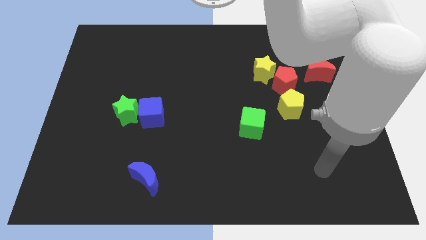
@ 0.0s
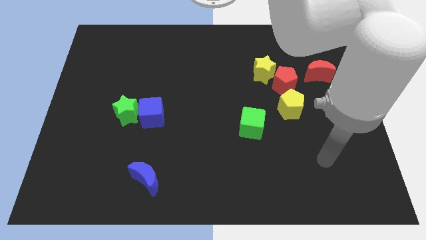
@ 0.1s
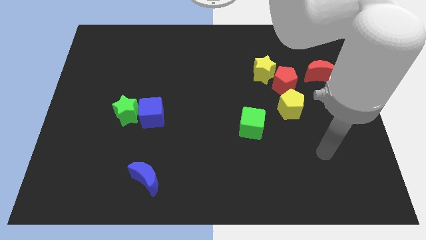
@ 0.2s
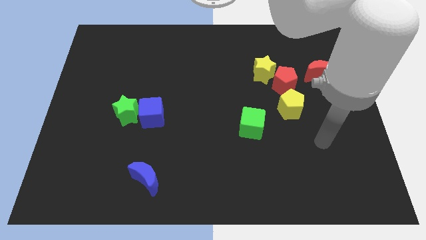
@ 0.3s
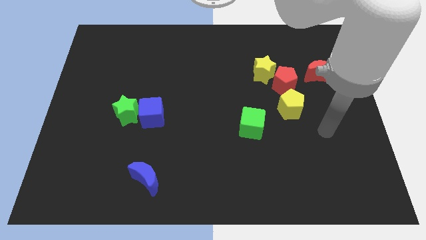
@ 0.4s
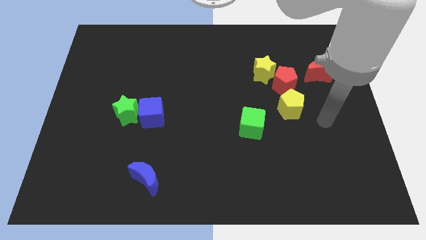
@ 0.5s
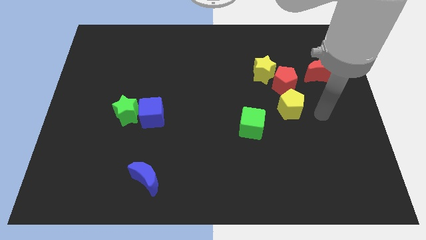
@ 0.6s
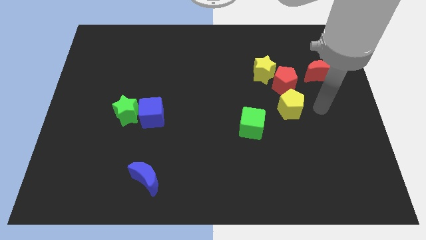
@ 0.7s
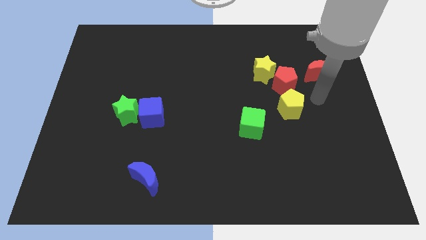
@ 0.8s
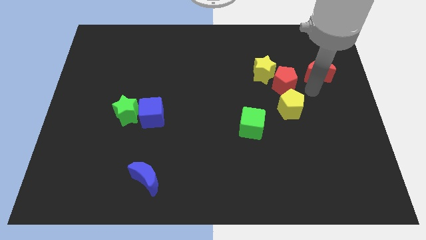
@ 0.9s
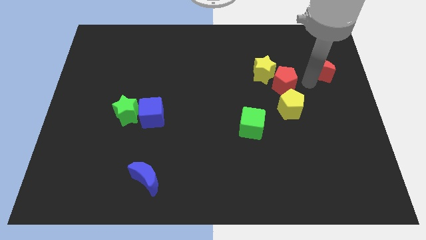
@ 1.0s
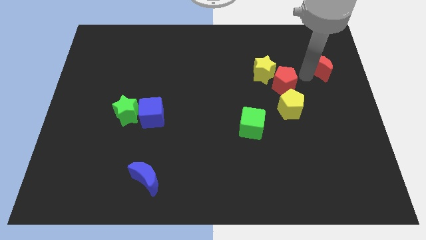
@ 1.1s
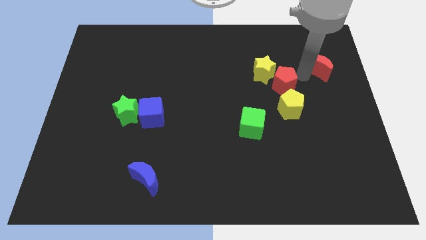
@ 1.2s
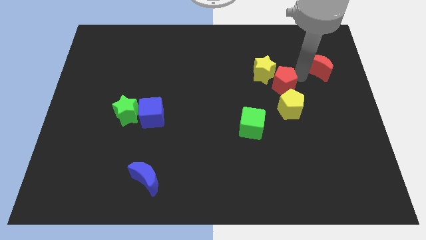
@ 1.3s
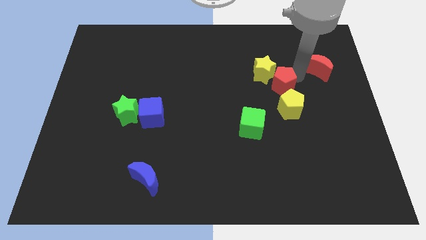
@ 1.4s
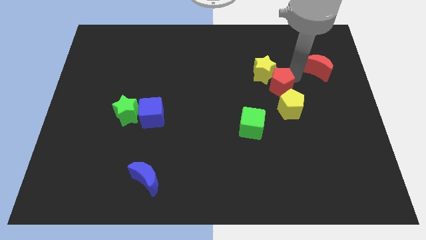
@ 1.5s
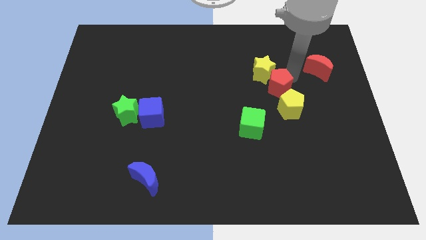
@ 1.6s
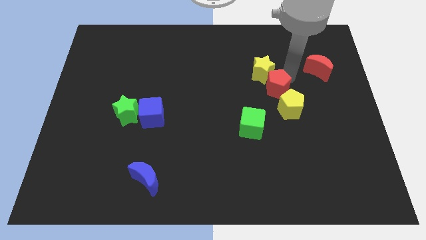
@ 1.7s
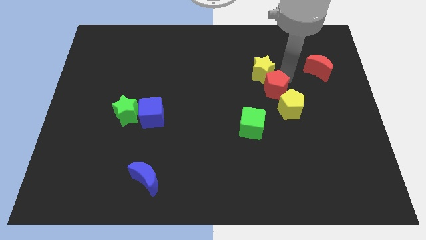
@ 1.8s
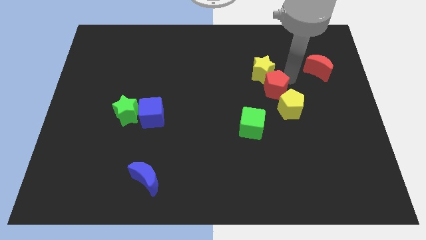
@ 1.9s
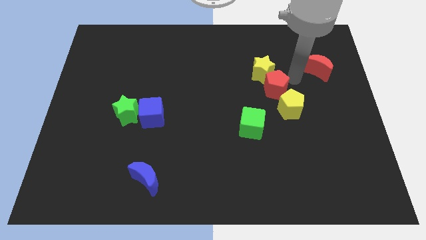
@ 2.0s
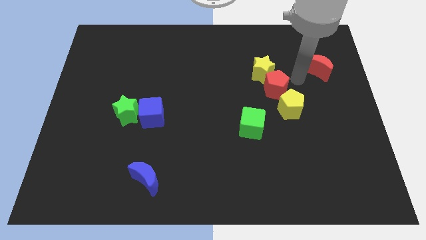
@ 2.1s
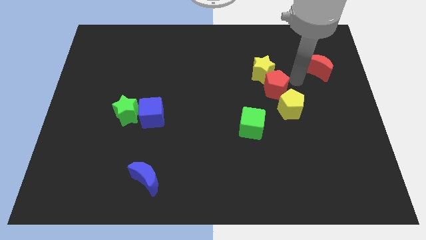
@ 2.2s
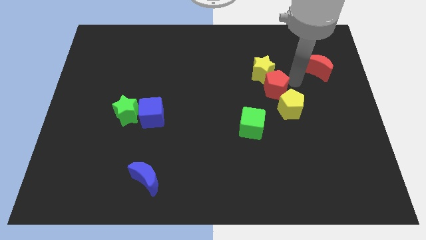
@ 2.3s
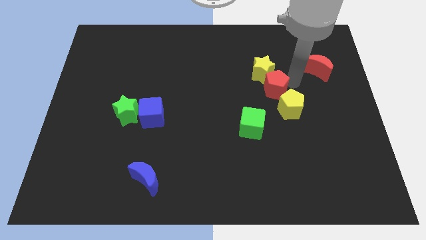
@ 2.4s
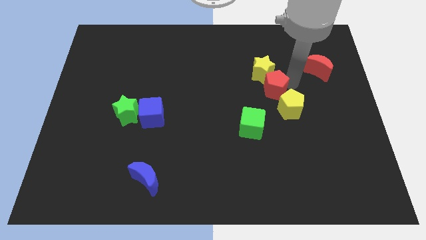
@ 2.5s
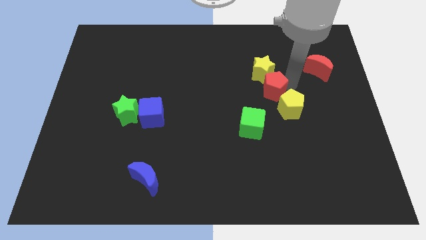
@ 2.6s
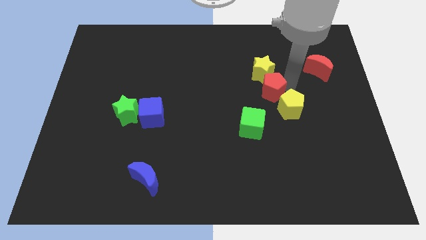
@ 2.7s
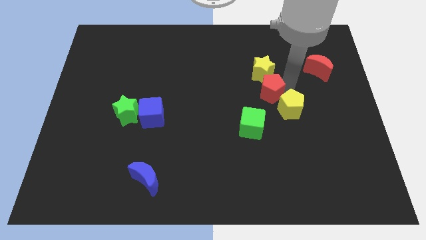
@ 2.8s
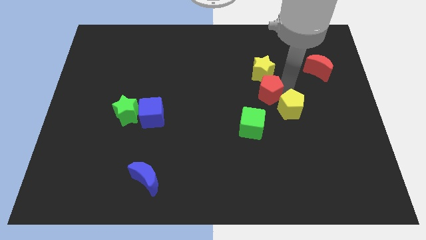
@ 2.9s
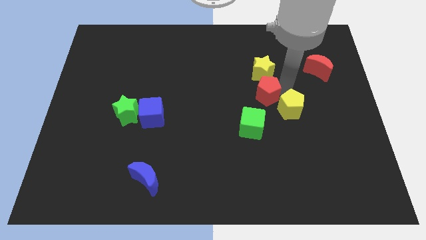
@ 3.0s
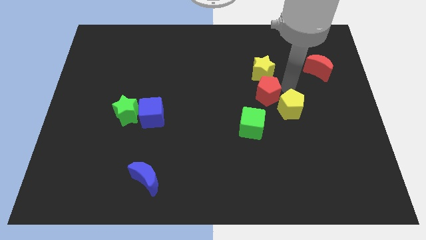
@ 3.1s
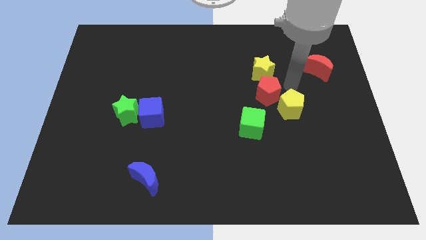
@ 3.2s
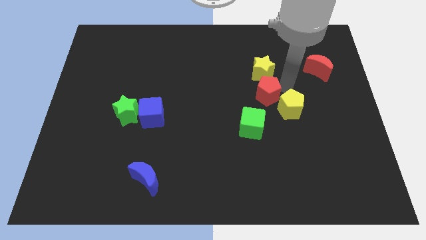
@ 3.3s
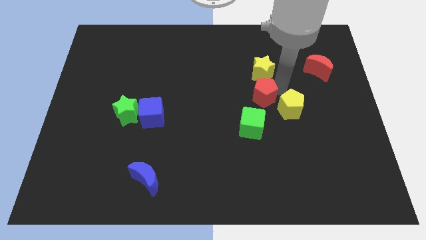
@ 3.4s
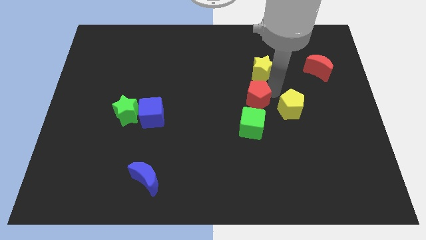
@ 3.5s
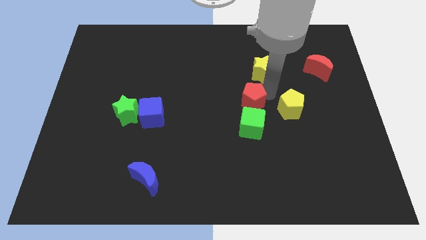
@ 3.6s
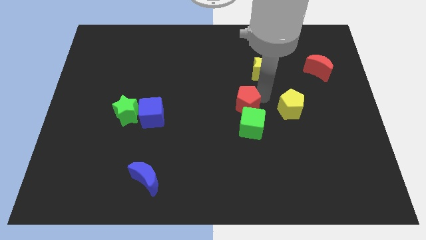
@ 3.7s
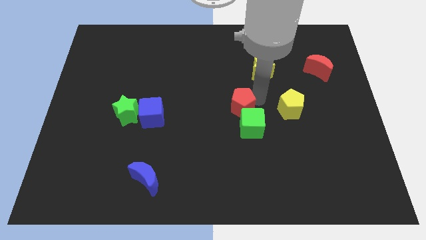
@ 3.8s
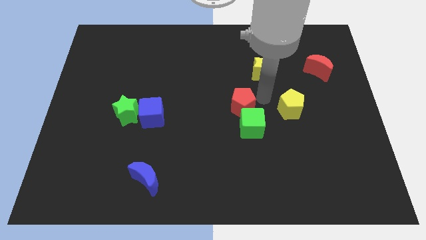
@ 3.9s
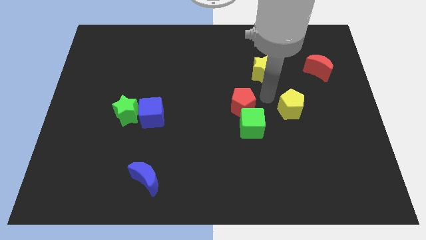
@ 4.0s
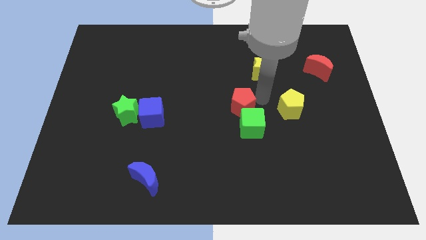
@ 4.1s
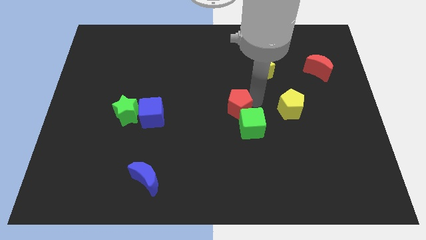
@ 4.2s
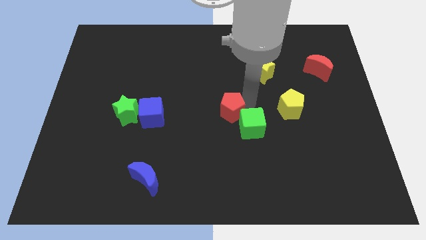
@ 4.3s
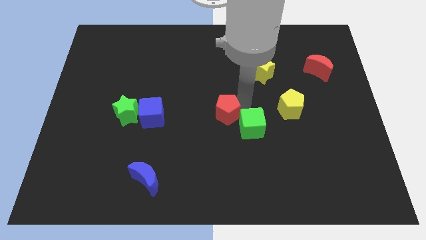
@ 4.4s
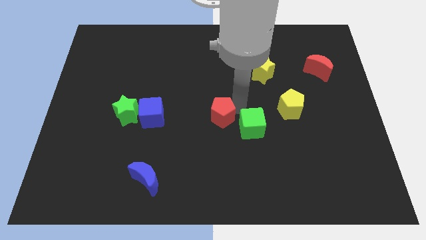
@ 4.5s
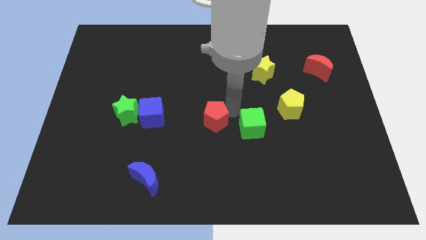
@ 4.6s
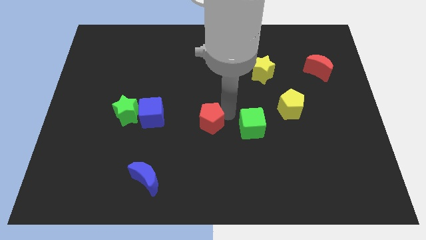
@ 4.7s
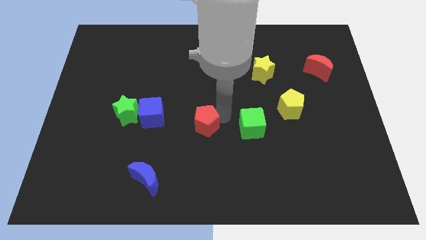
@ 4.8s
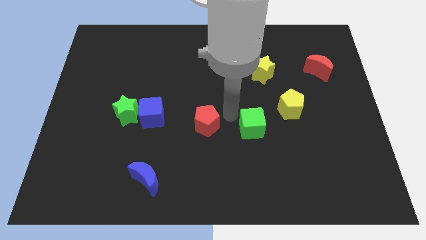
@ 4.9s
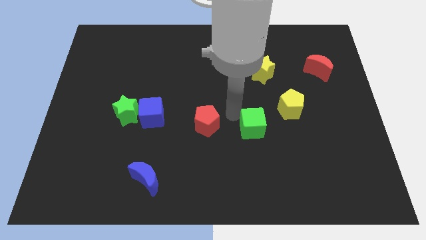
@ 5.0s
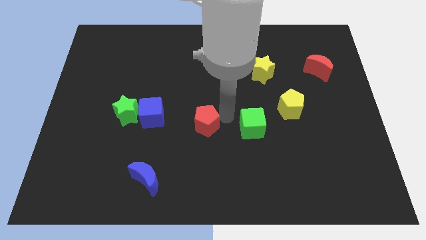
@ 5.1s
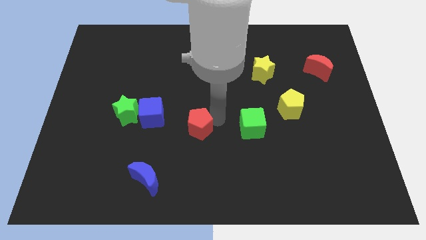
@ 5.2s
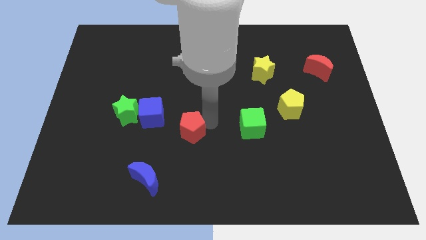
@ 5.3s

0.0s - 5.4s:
push the red pentagon diagonally down and to the right of the blue cube

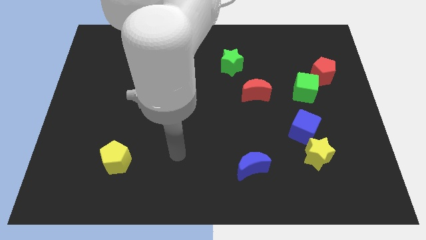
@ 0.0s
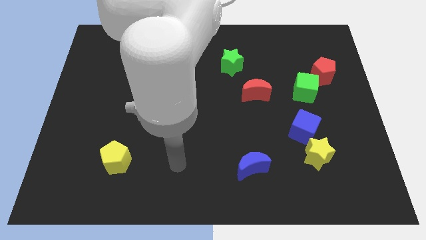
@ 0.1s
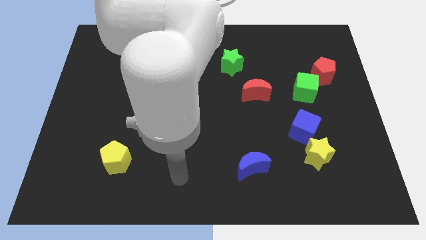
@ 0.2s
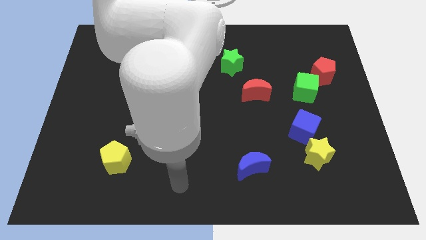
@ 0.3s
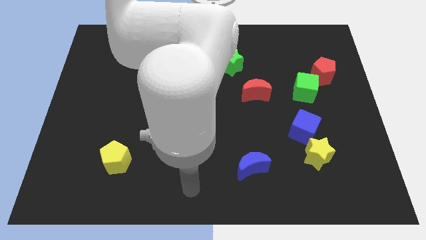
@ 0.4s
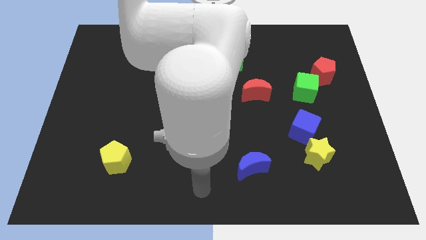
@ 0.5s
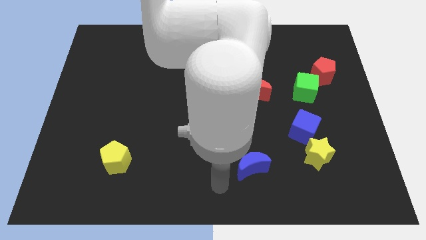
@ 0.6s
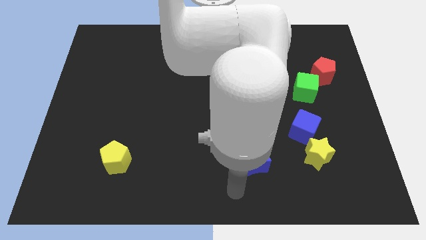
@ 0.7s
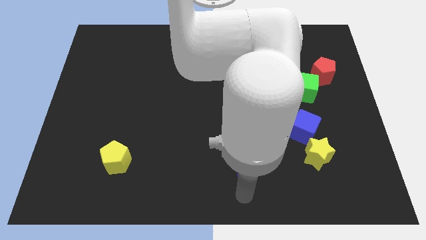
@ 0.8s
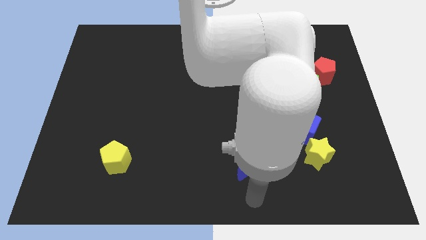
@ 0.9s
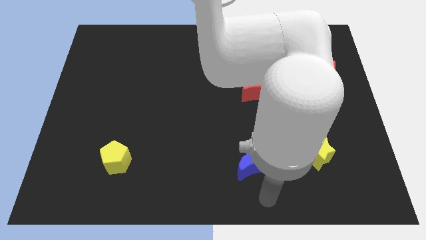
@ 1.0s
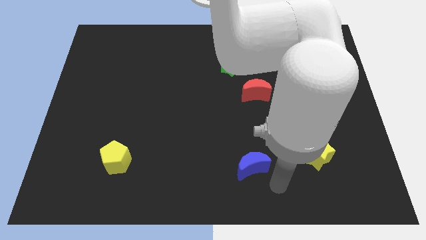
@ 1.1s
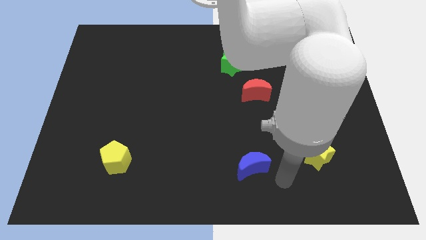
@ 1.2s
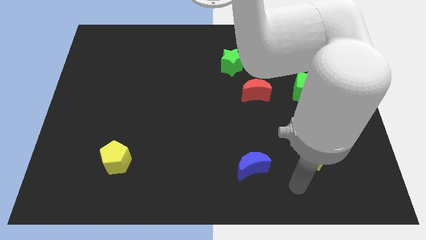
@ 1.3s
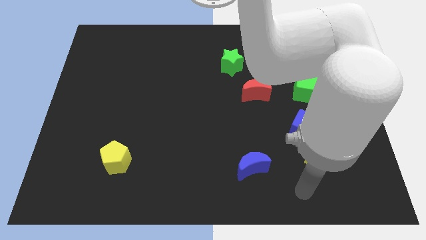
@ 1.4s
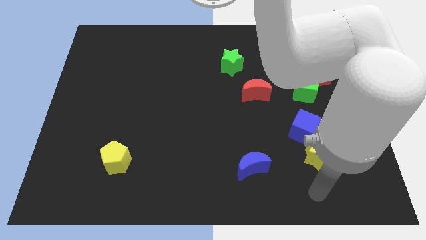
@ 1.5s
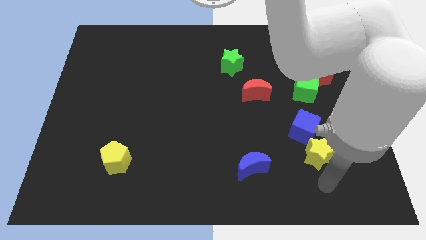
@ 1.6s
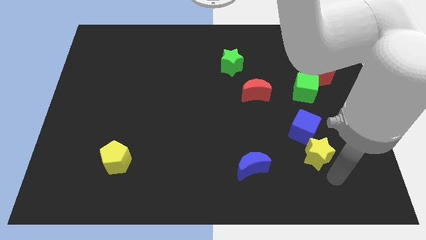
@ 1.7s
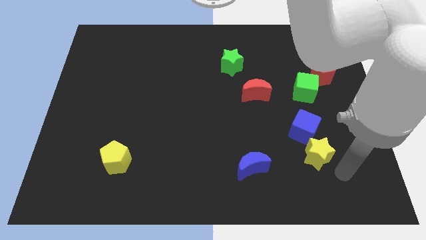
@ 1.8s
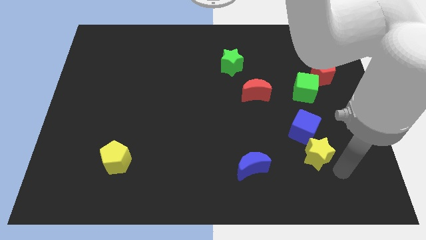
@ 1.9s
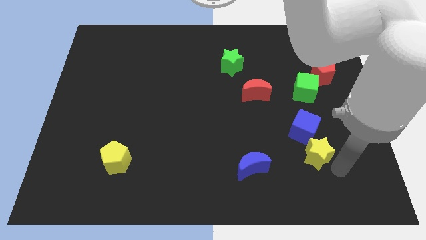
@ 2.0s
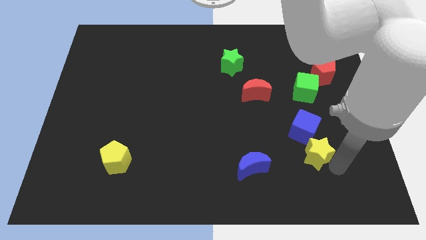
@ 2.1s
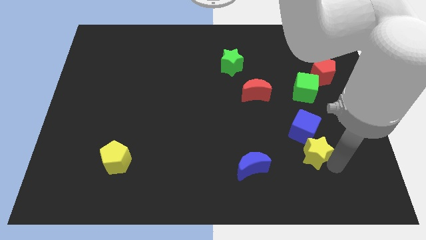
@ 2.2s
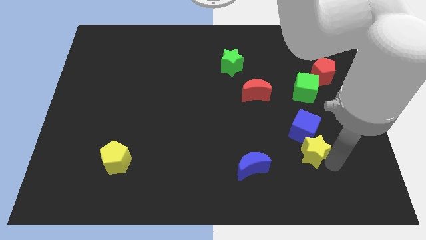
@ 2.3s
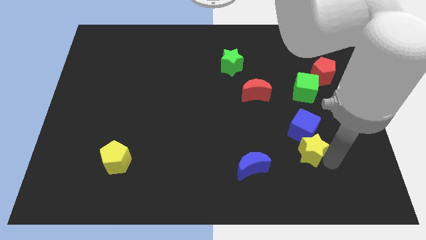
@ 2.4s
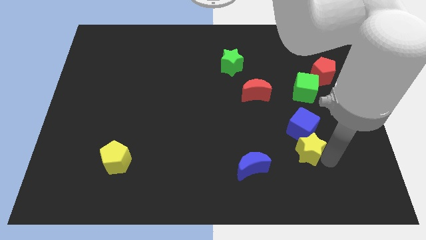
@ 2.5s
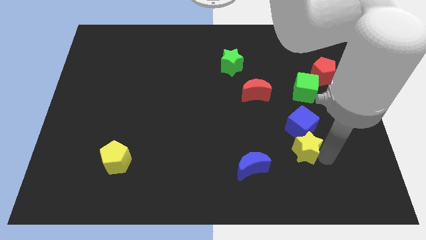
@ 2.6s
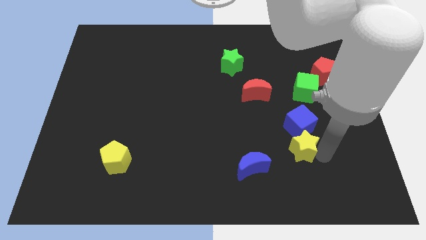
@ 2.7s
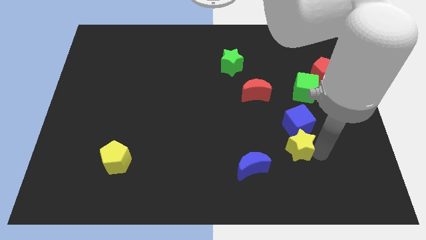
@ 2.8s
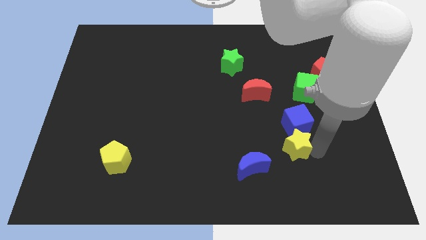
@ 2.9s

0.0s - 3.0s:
move the yellow star to the top right of the blue moon
